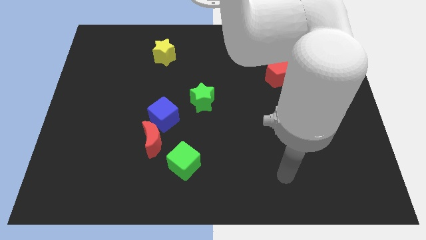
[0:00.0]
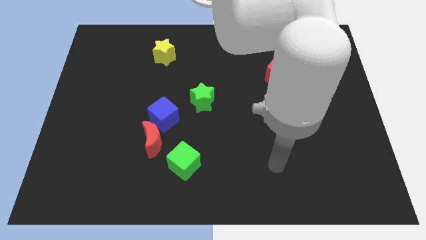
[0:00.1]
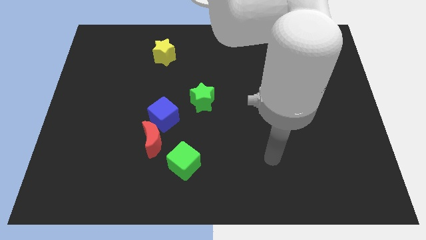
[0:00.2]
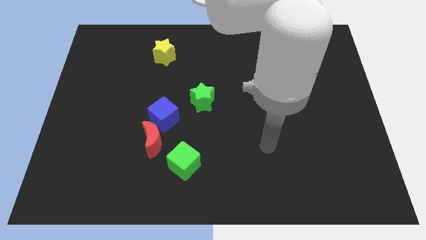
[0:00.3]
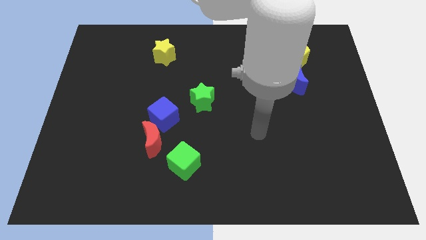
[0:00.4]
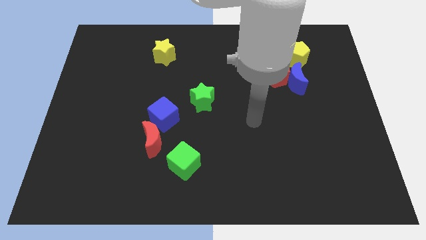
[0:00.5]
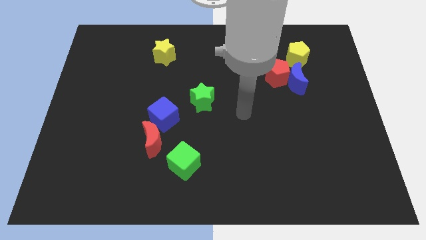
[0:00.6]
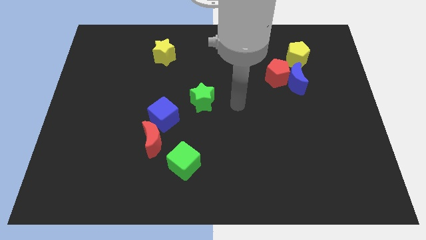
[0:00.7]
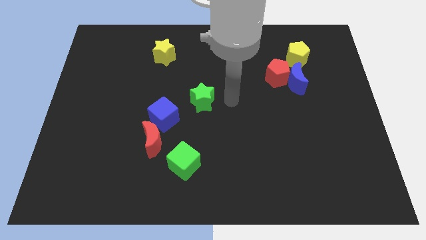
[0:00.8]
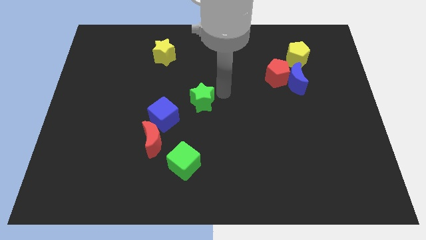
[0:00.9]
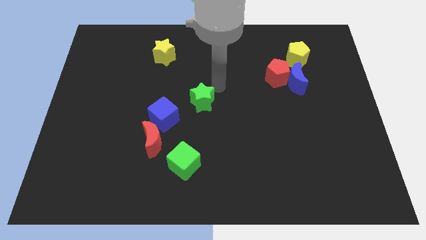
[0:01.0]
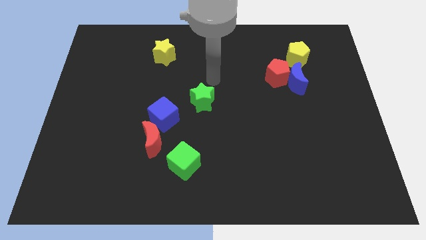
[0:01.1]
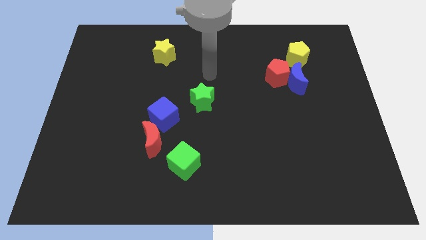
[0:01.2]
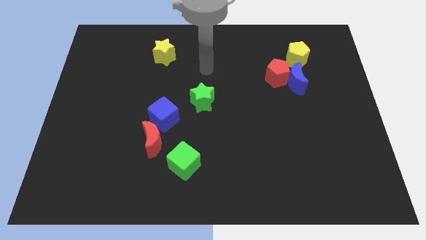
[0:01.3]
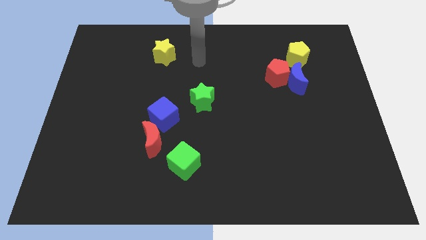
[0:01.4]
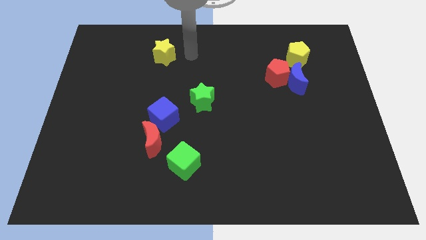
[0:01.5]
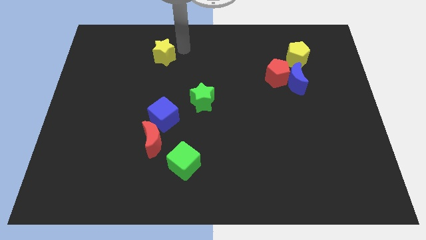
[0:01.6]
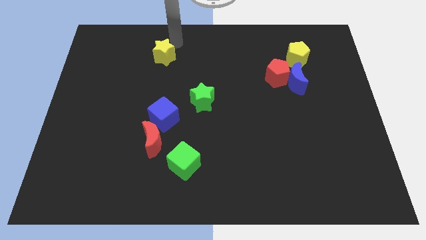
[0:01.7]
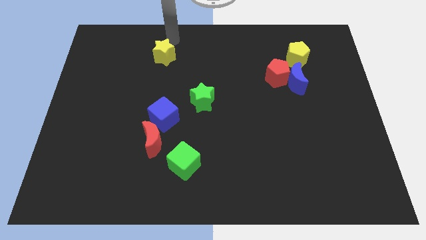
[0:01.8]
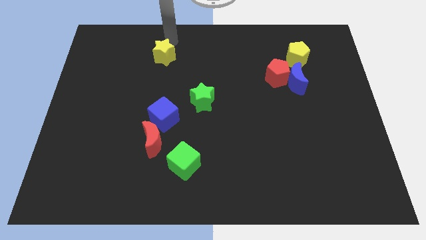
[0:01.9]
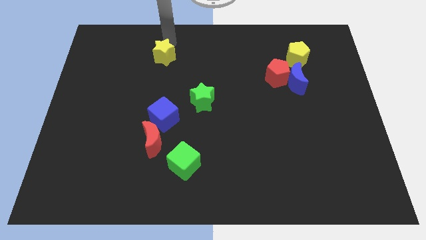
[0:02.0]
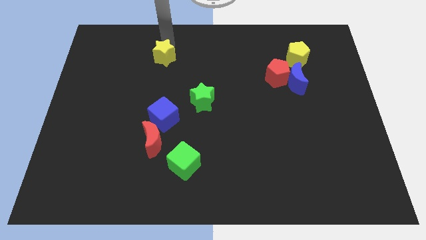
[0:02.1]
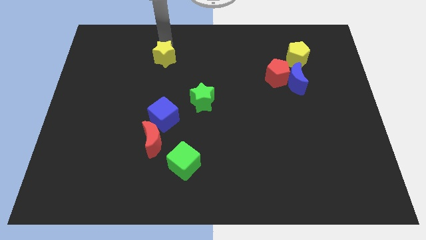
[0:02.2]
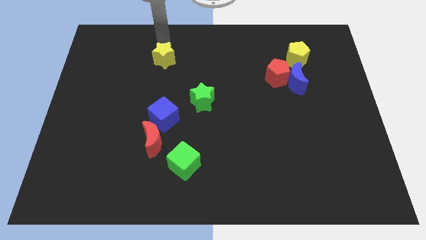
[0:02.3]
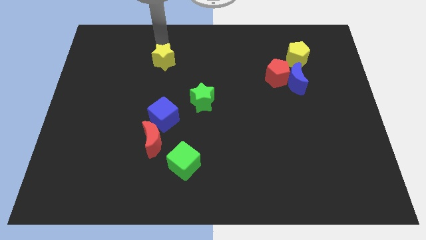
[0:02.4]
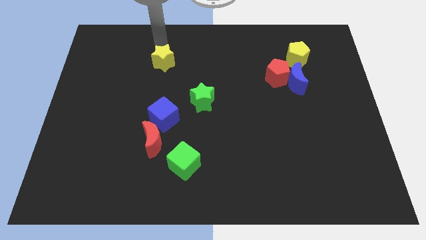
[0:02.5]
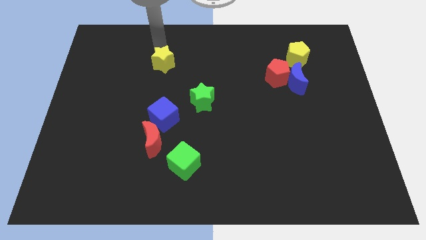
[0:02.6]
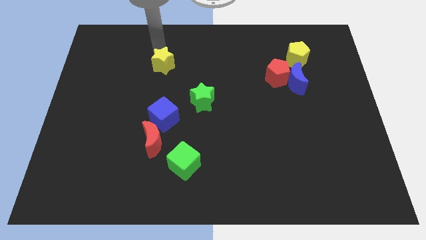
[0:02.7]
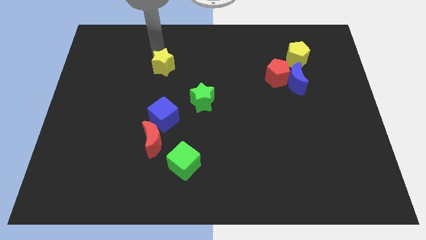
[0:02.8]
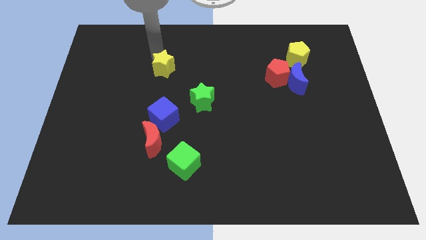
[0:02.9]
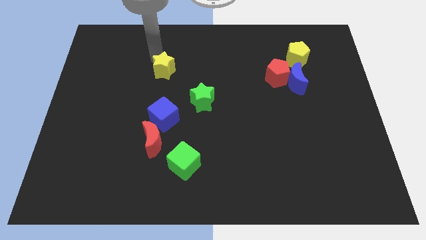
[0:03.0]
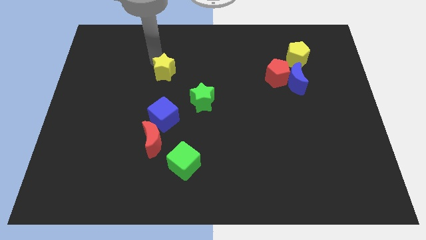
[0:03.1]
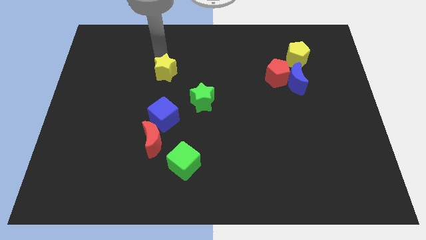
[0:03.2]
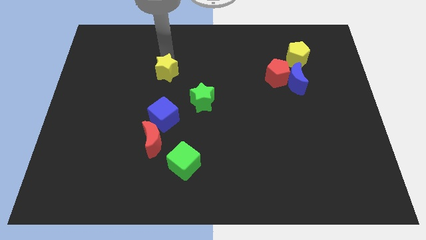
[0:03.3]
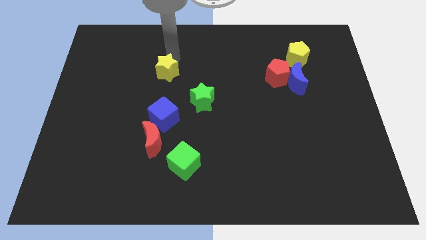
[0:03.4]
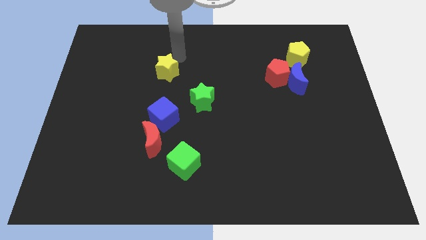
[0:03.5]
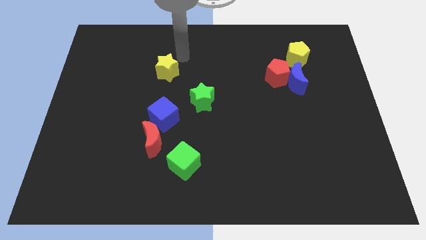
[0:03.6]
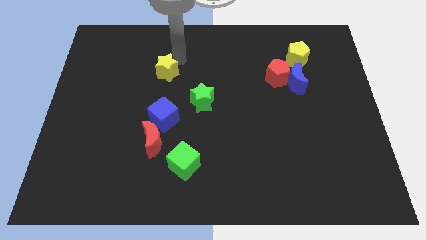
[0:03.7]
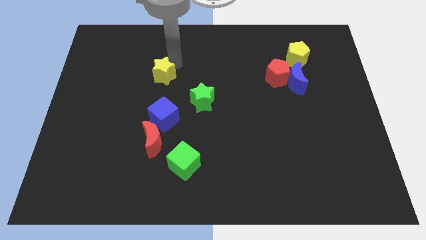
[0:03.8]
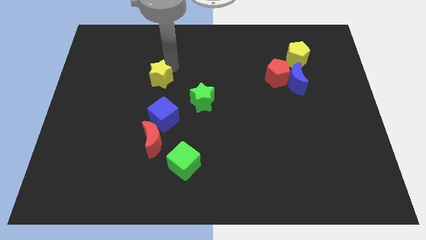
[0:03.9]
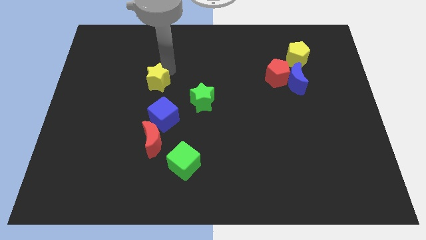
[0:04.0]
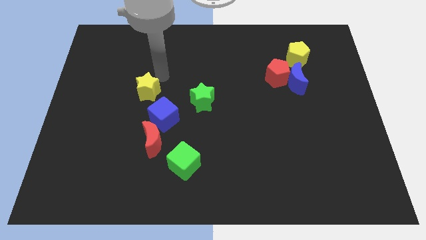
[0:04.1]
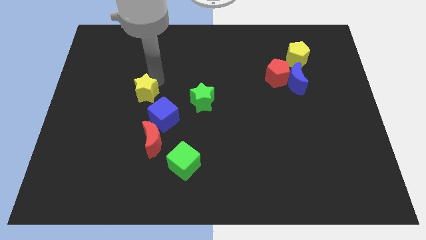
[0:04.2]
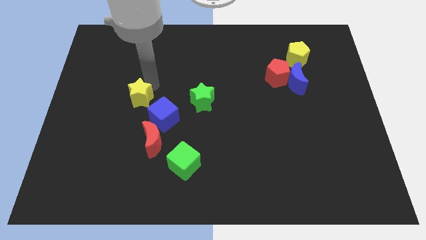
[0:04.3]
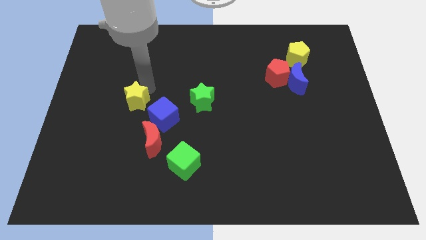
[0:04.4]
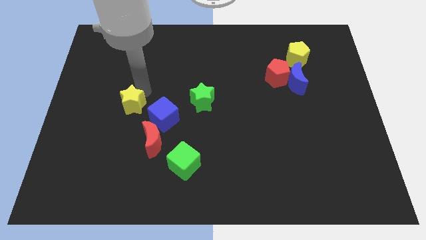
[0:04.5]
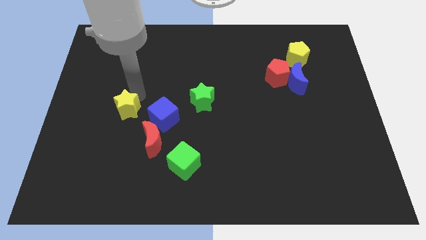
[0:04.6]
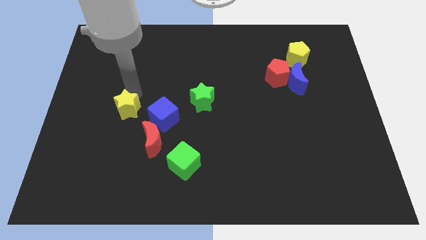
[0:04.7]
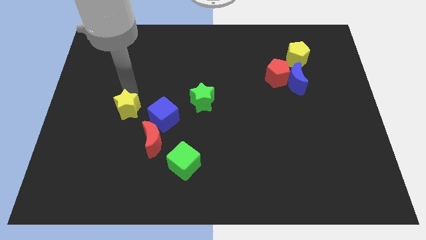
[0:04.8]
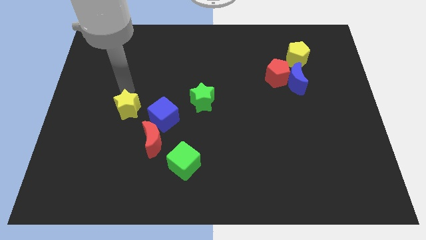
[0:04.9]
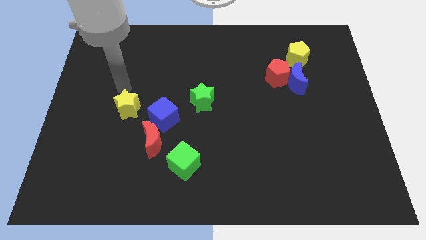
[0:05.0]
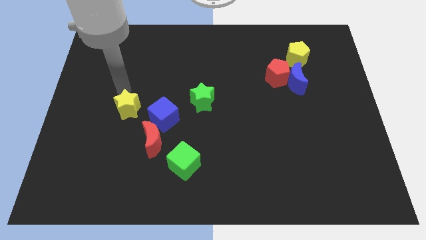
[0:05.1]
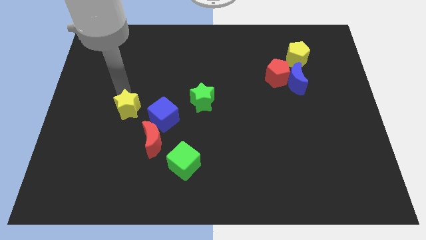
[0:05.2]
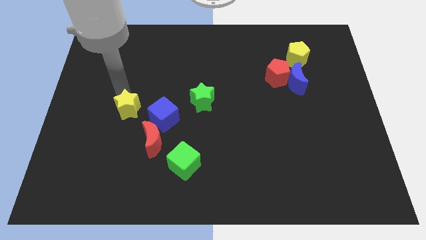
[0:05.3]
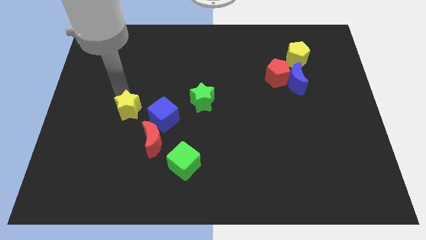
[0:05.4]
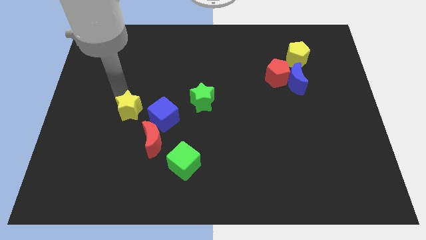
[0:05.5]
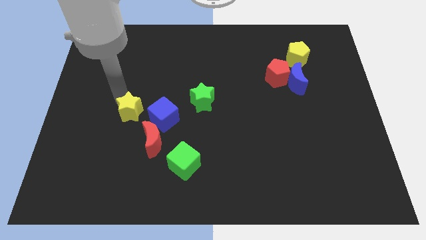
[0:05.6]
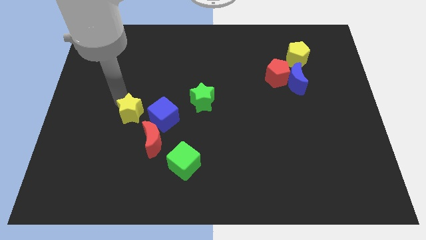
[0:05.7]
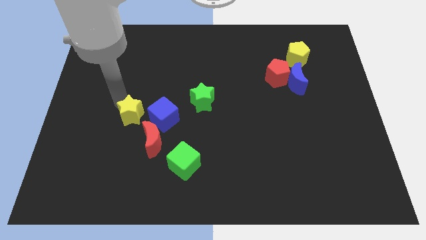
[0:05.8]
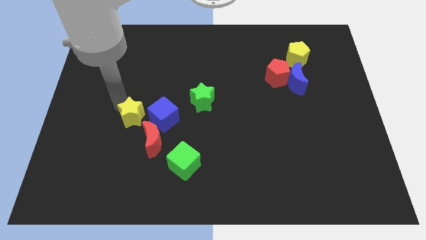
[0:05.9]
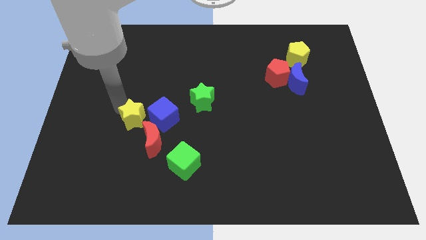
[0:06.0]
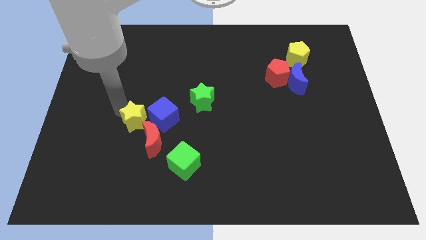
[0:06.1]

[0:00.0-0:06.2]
move the yellow star downwards

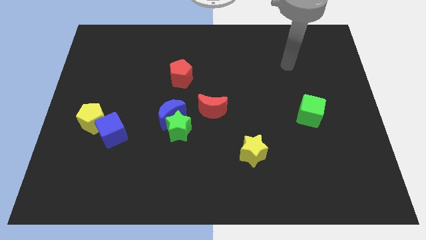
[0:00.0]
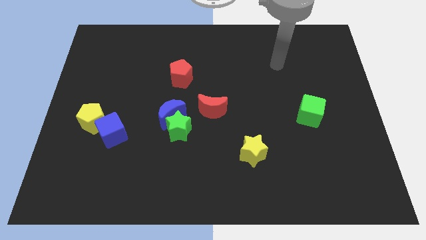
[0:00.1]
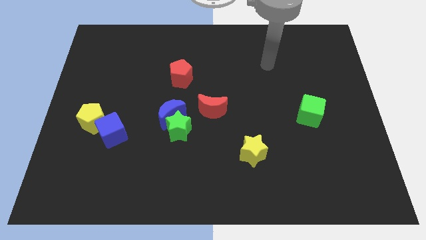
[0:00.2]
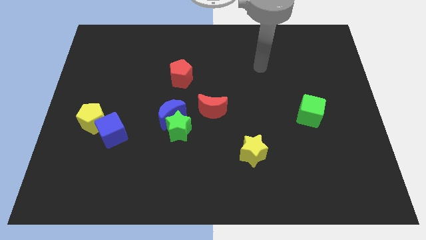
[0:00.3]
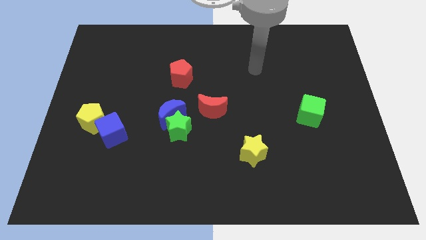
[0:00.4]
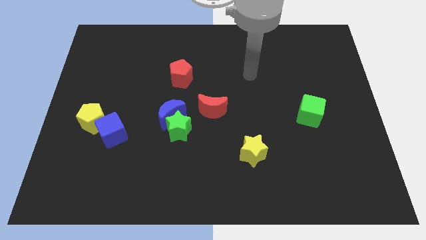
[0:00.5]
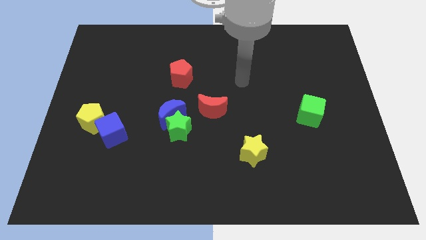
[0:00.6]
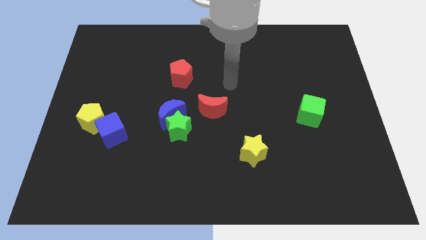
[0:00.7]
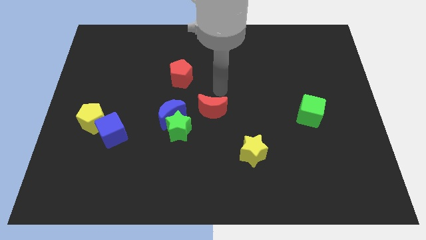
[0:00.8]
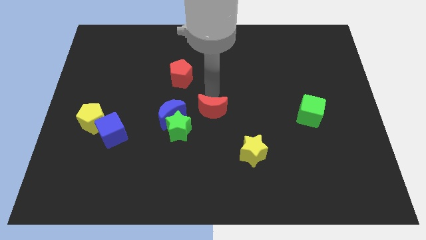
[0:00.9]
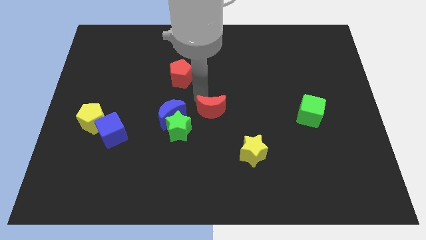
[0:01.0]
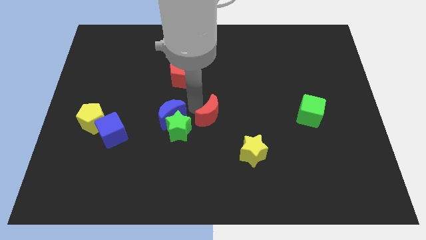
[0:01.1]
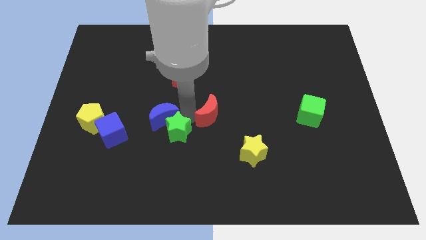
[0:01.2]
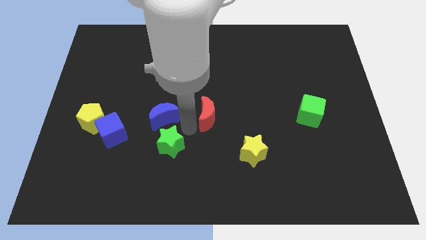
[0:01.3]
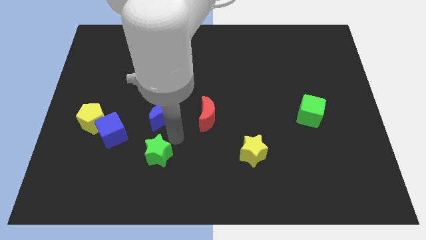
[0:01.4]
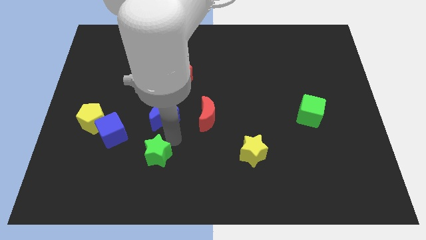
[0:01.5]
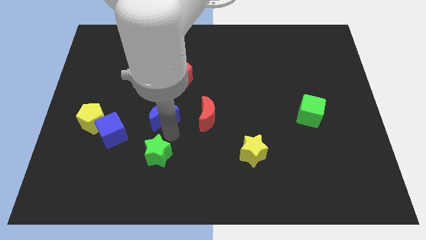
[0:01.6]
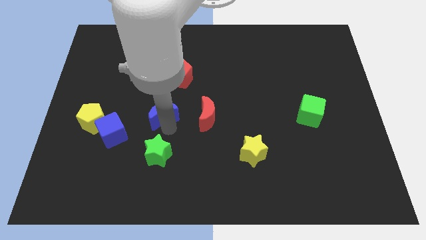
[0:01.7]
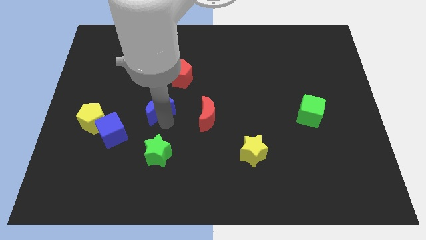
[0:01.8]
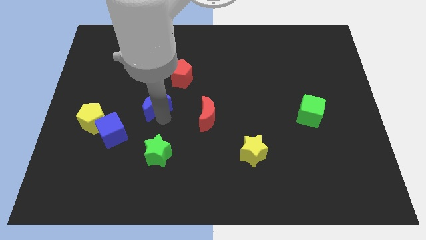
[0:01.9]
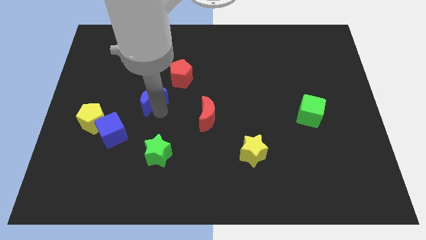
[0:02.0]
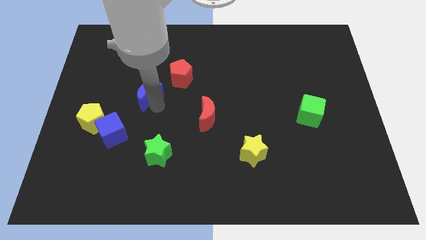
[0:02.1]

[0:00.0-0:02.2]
push the blue moon a little upwards and left
